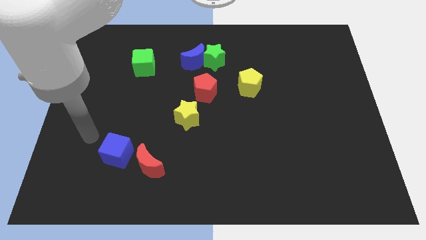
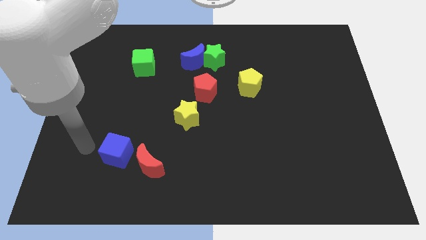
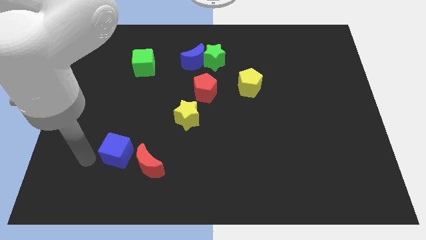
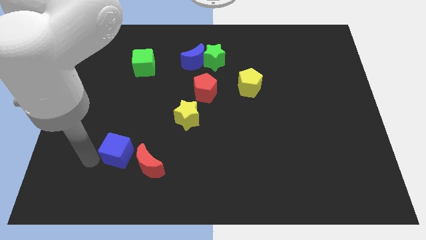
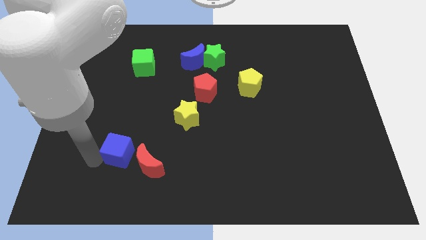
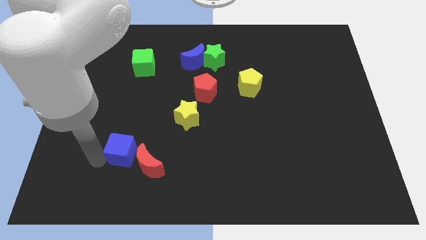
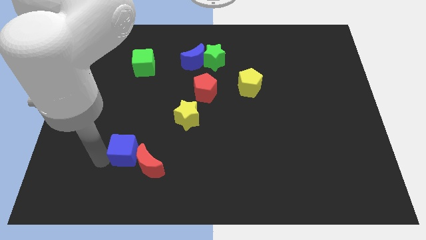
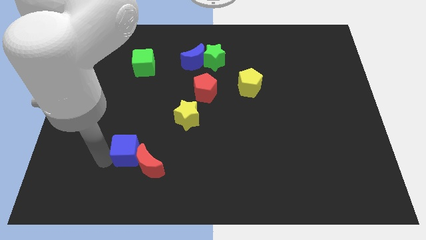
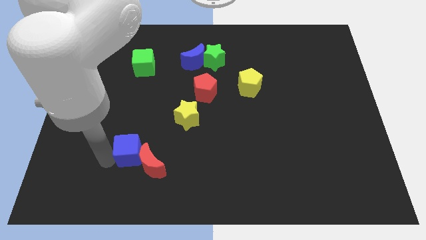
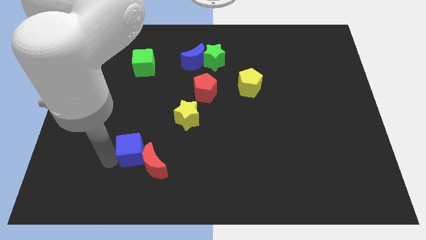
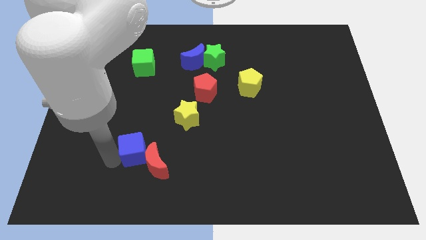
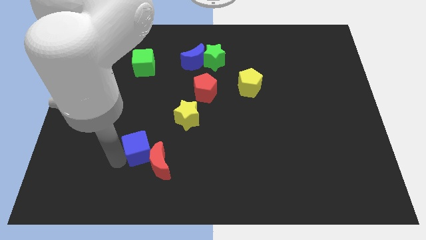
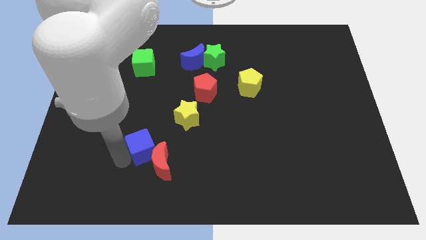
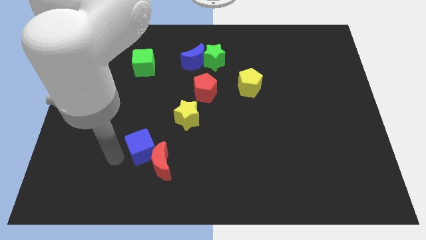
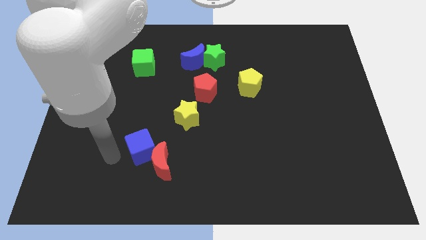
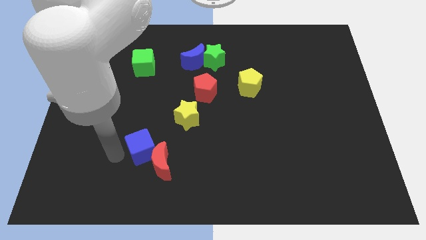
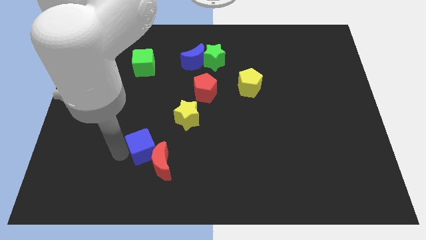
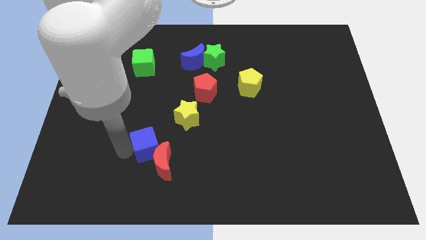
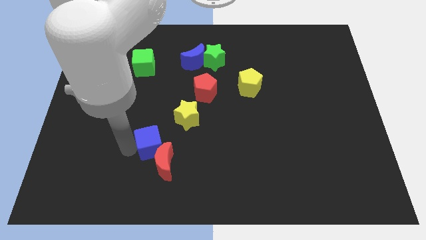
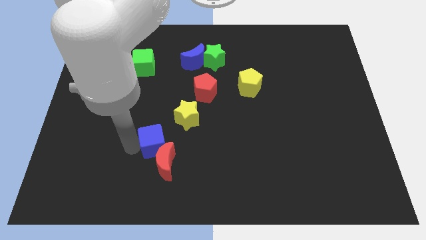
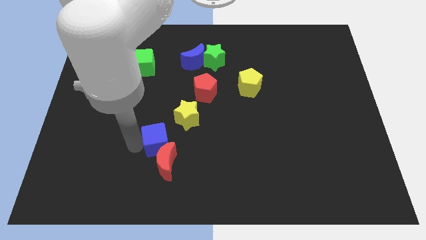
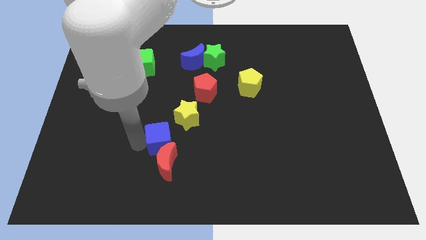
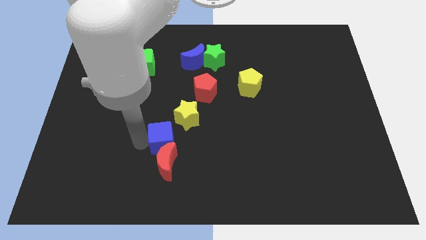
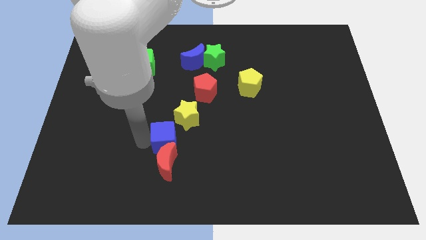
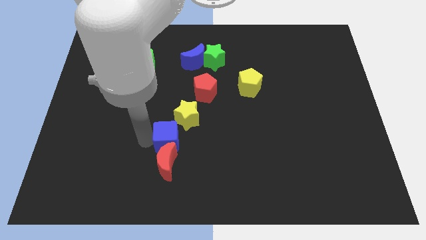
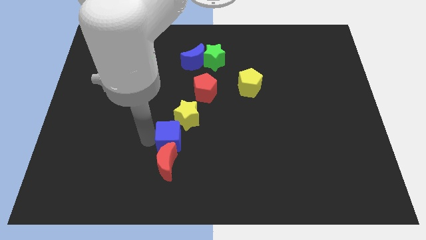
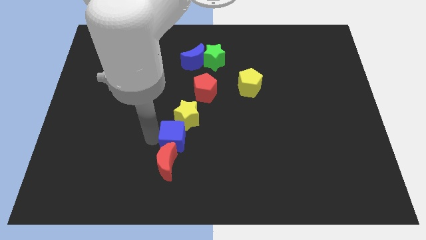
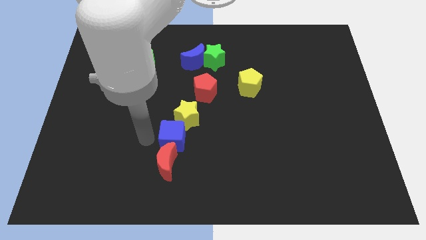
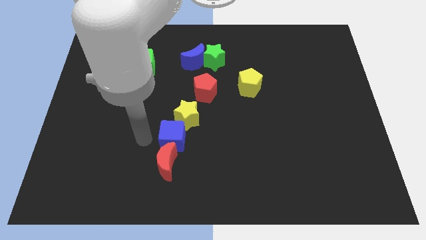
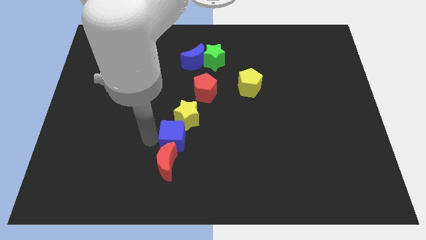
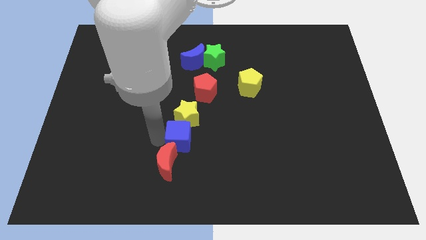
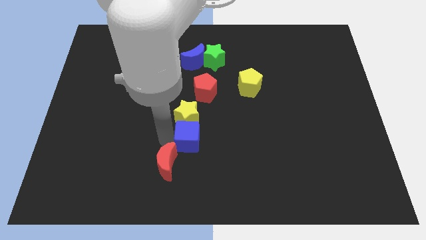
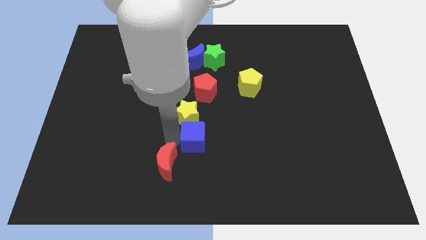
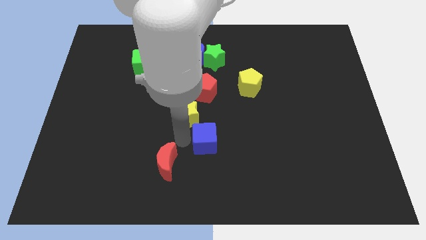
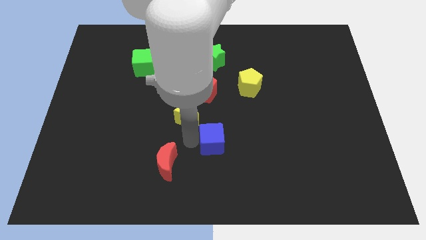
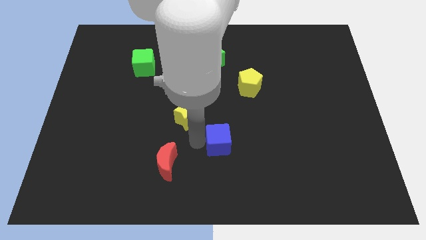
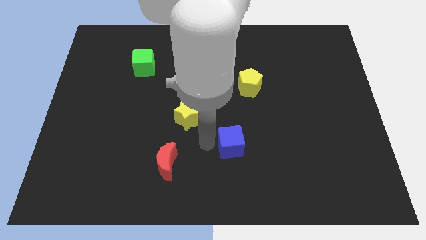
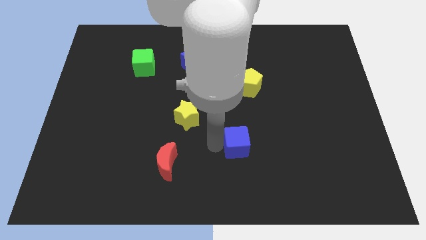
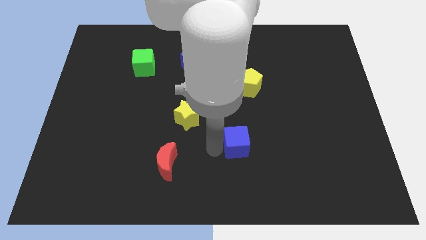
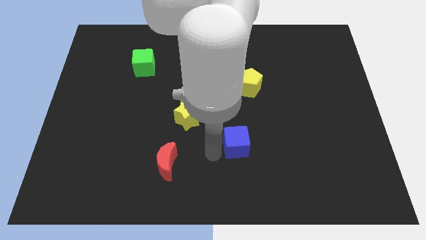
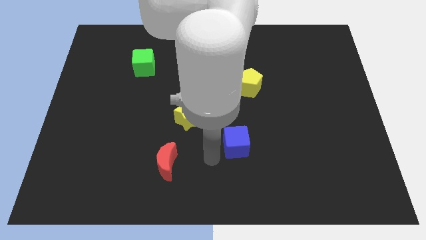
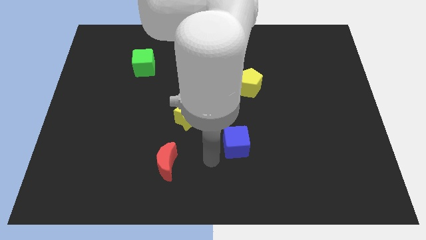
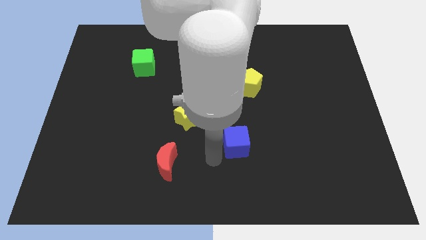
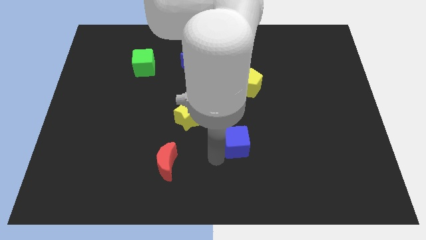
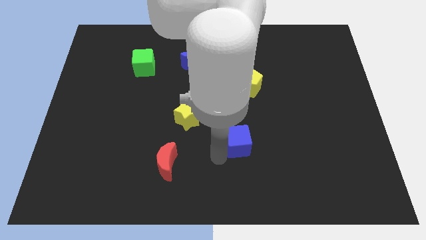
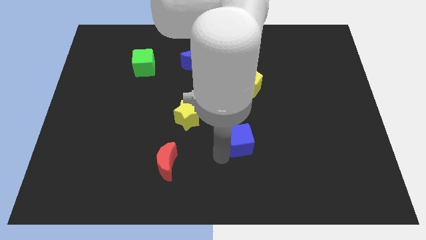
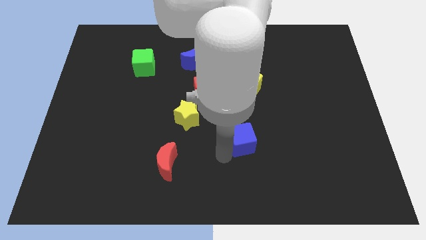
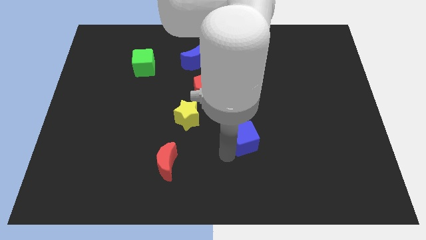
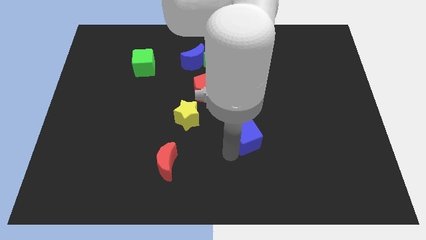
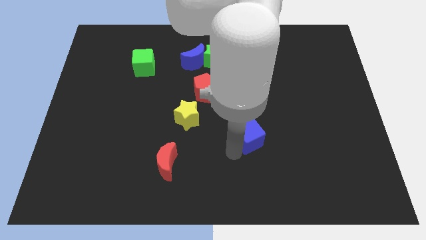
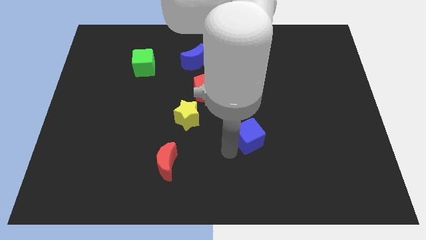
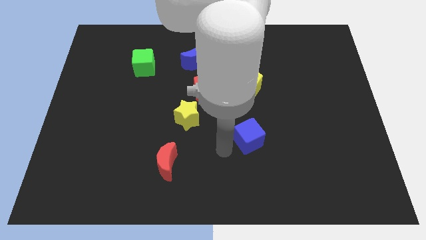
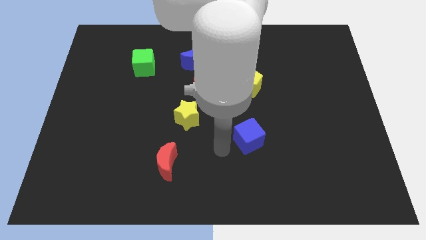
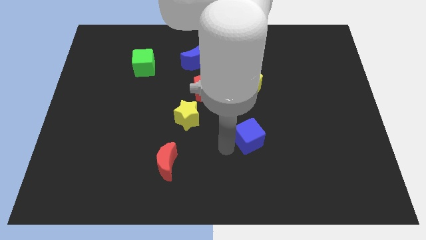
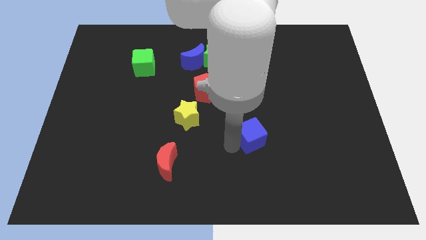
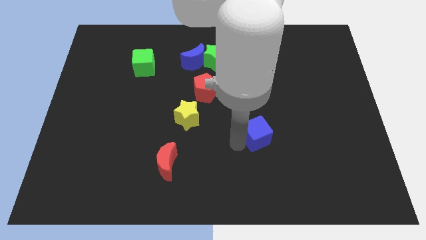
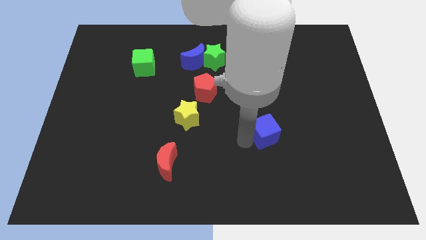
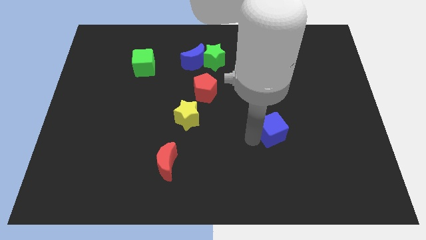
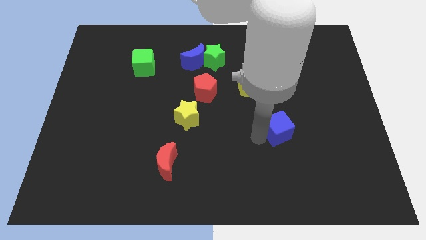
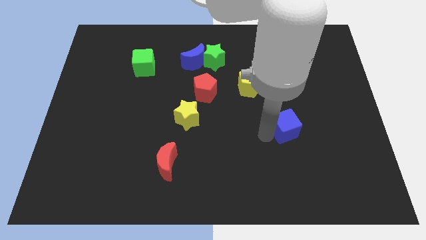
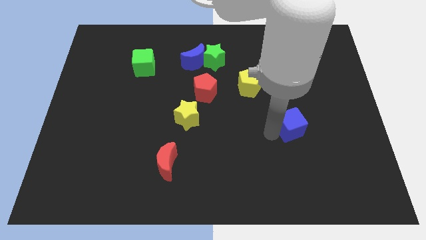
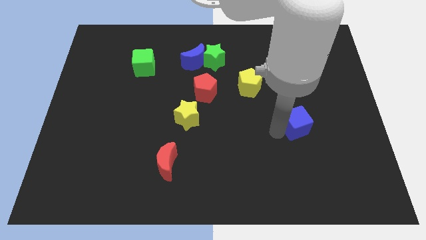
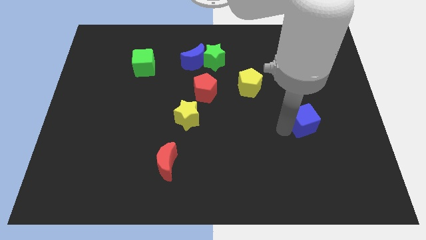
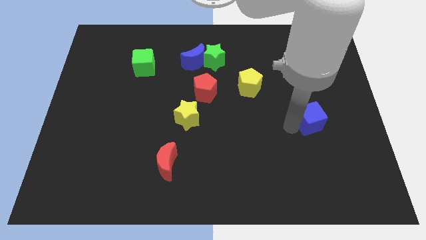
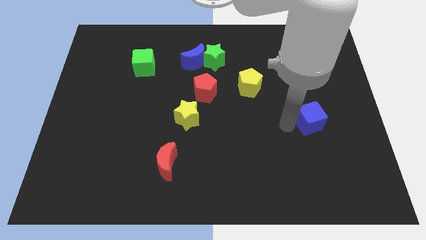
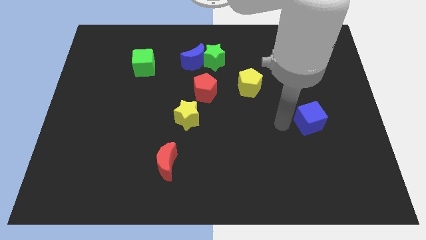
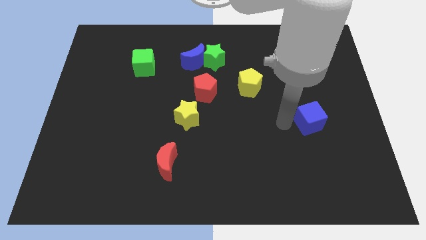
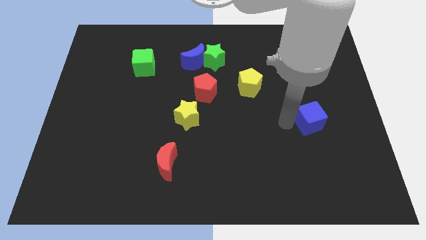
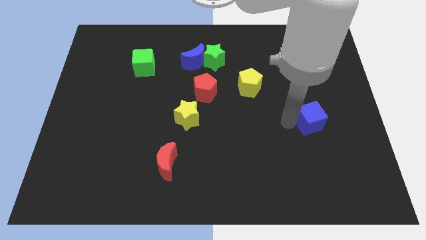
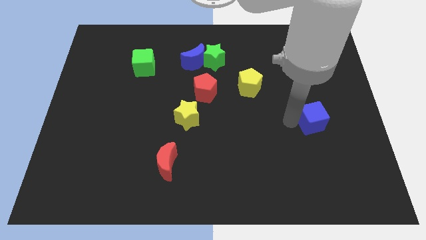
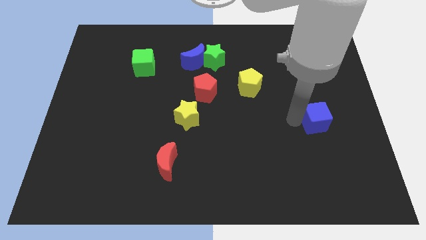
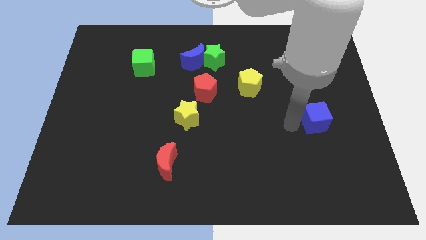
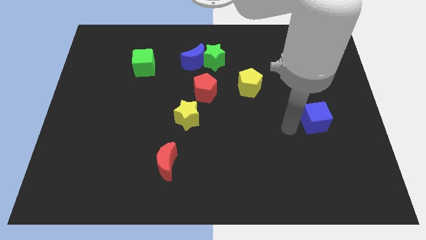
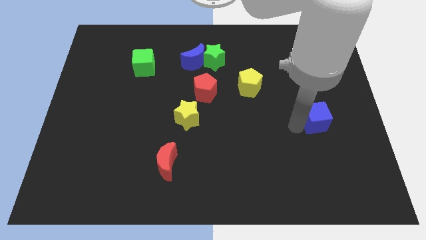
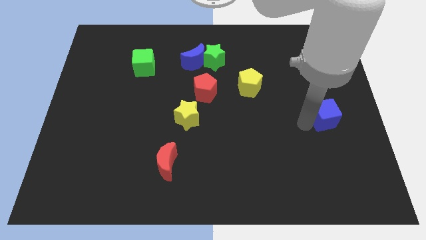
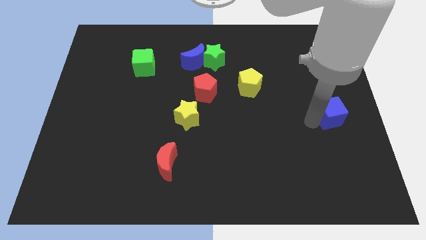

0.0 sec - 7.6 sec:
slide the blue cube to the right side of the board
